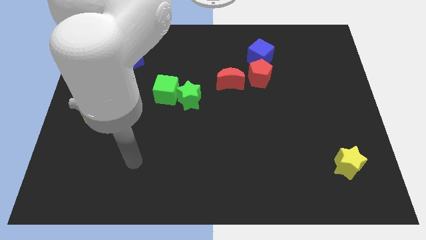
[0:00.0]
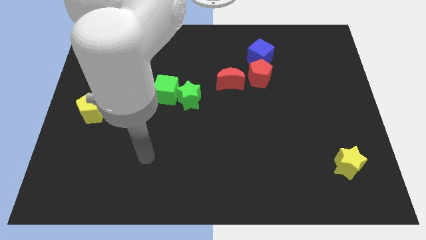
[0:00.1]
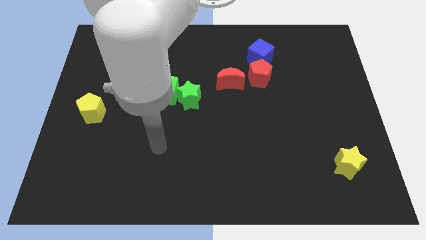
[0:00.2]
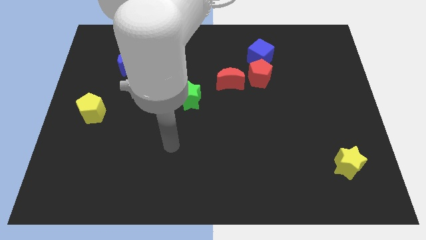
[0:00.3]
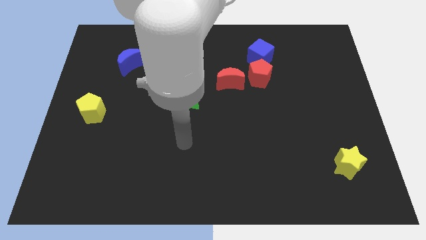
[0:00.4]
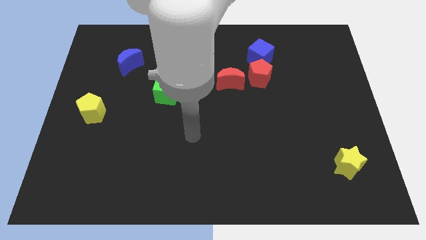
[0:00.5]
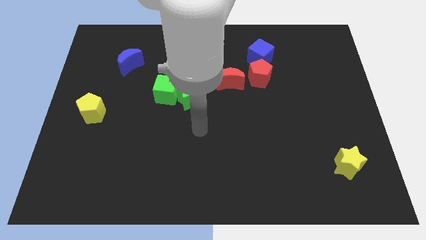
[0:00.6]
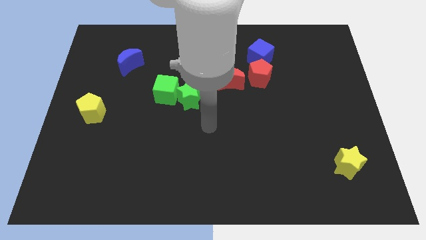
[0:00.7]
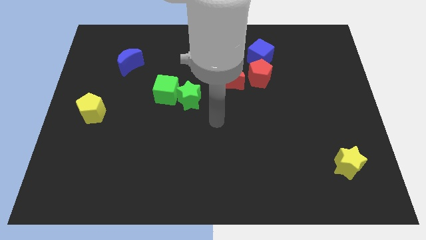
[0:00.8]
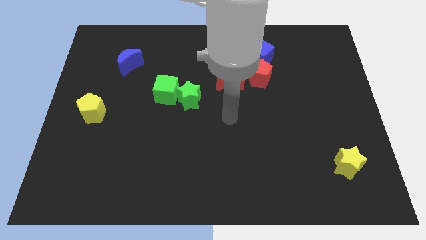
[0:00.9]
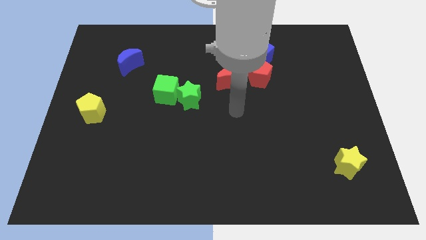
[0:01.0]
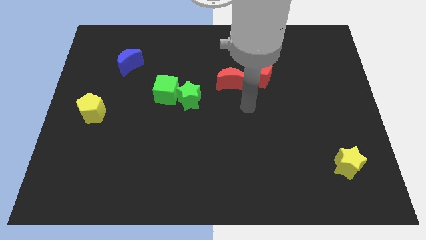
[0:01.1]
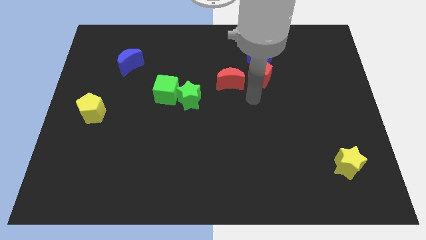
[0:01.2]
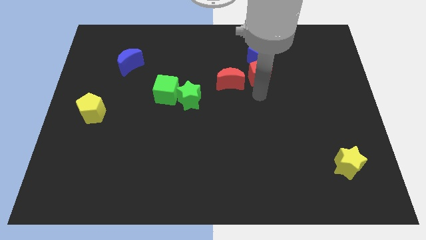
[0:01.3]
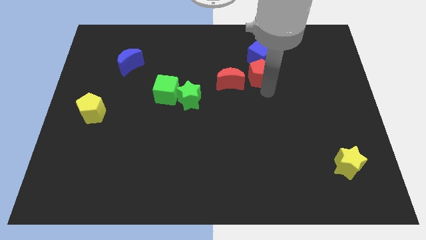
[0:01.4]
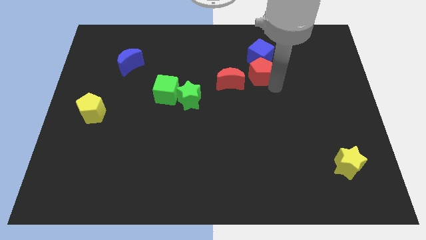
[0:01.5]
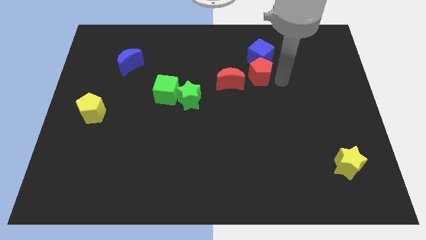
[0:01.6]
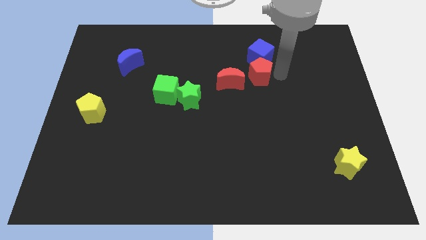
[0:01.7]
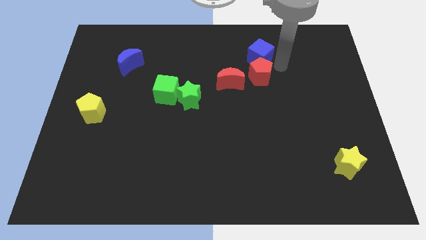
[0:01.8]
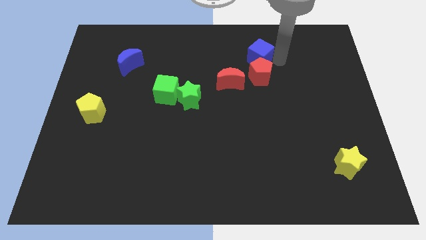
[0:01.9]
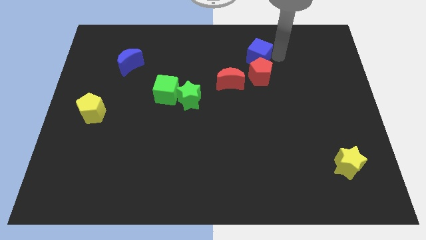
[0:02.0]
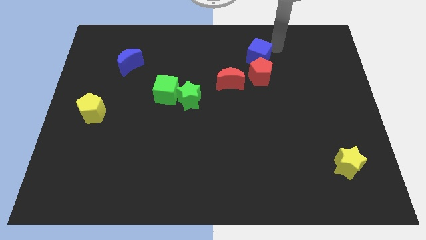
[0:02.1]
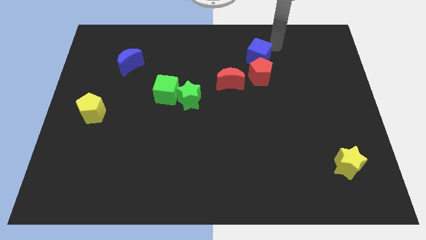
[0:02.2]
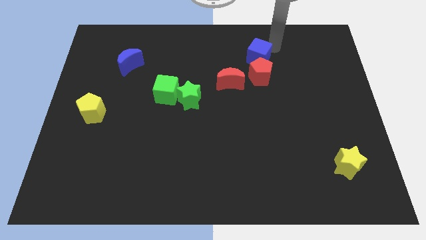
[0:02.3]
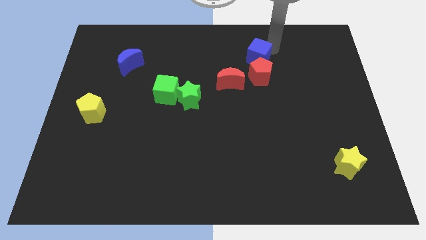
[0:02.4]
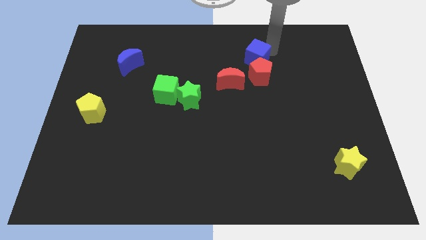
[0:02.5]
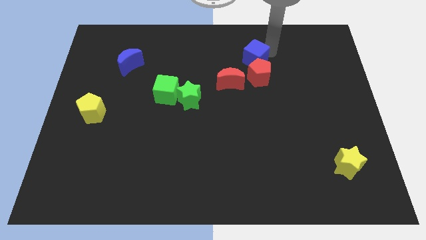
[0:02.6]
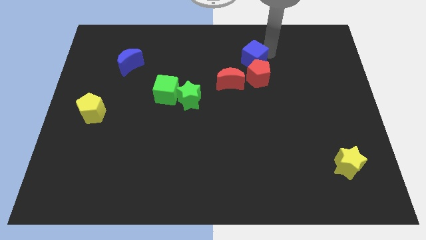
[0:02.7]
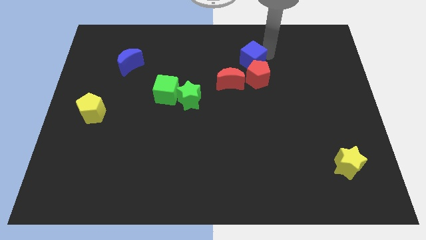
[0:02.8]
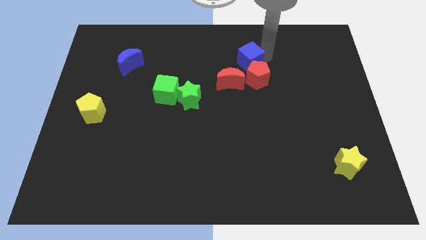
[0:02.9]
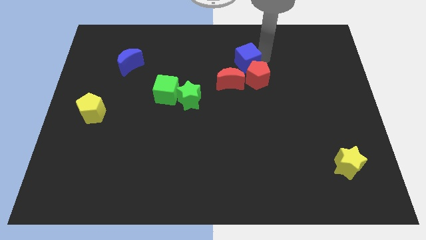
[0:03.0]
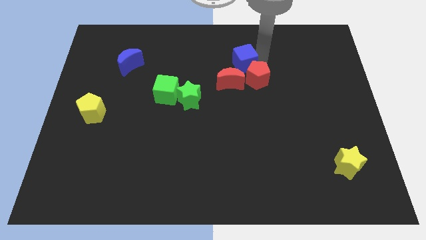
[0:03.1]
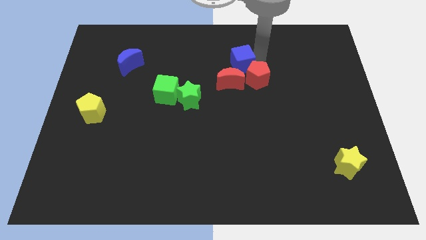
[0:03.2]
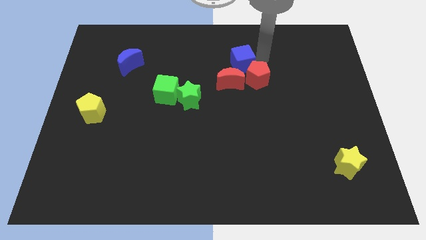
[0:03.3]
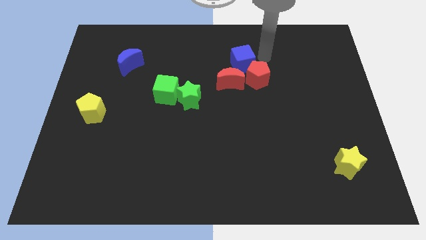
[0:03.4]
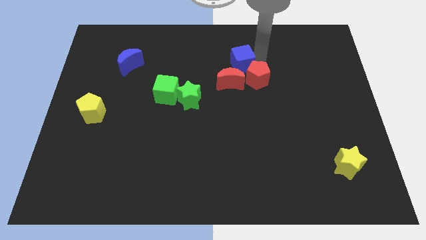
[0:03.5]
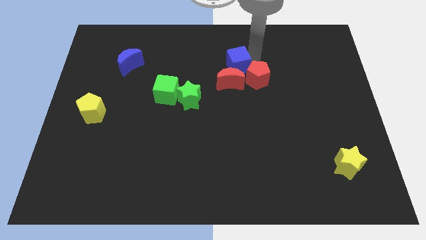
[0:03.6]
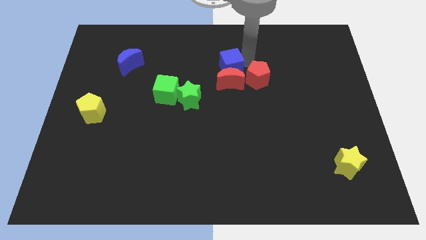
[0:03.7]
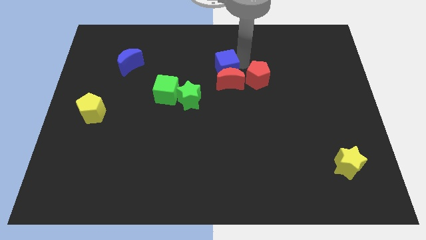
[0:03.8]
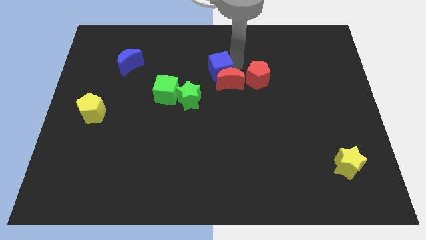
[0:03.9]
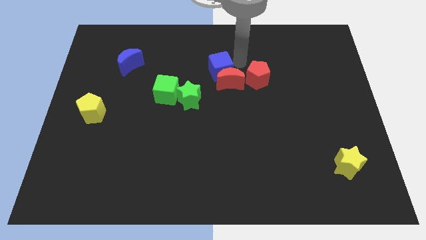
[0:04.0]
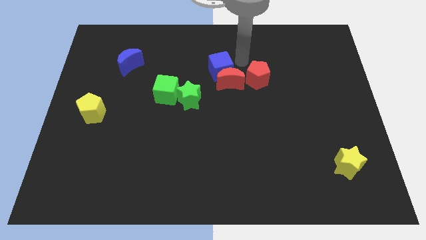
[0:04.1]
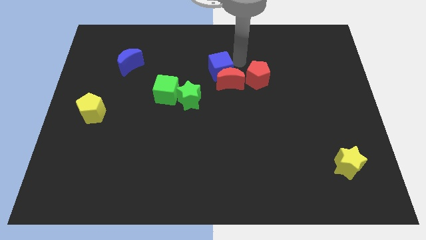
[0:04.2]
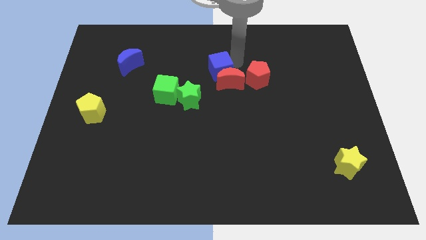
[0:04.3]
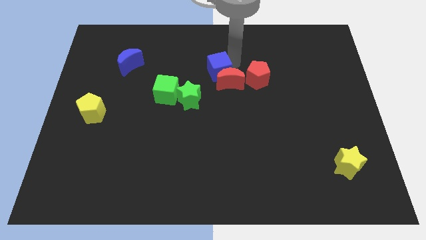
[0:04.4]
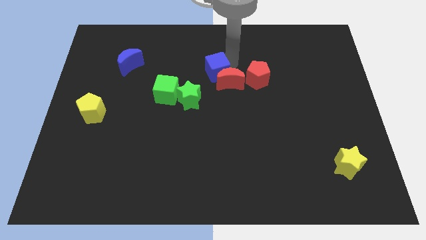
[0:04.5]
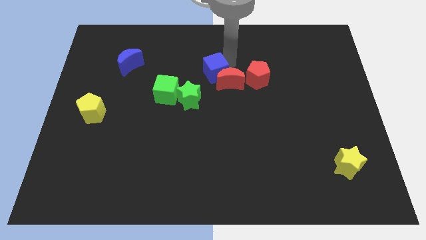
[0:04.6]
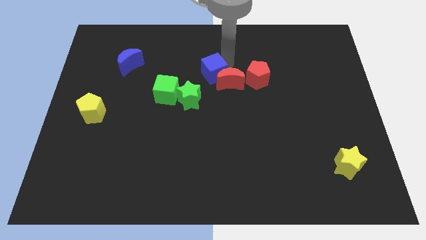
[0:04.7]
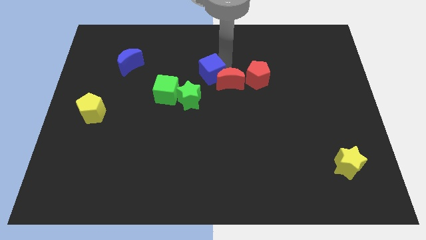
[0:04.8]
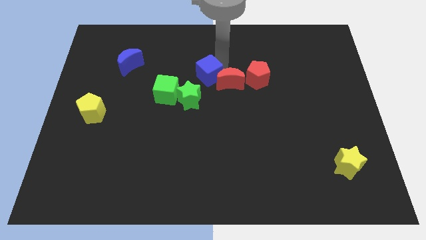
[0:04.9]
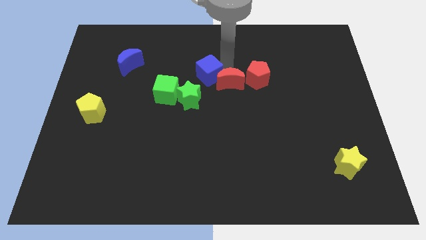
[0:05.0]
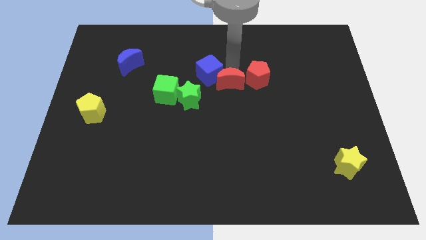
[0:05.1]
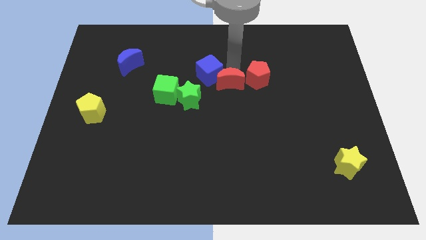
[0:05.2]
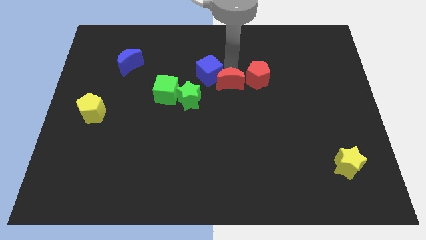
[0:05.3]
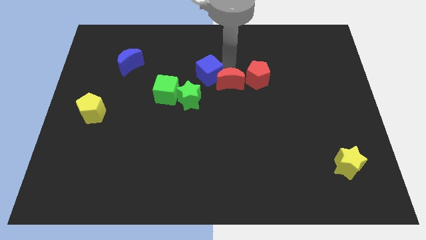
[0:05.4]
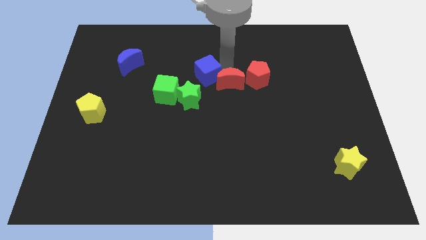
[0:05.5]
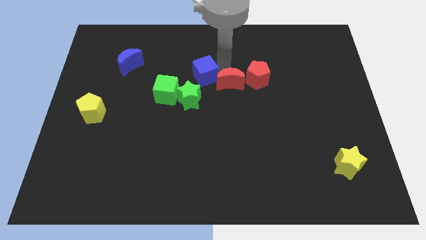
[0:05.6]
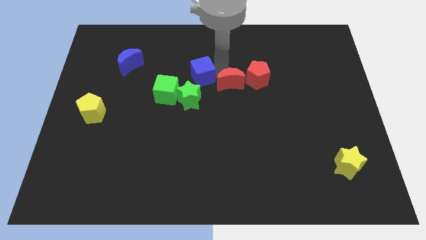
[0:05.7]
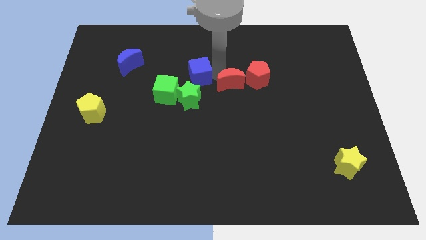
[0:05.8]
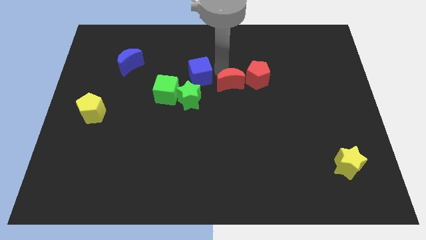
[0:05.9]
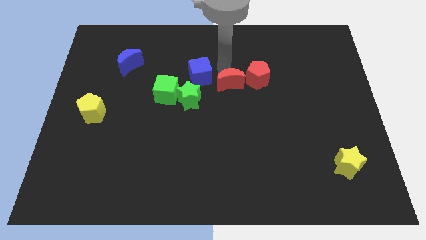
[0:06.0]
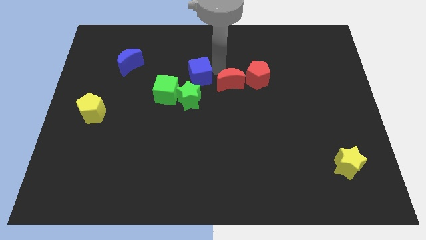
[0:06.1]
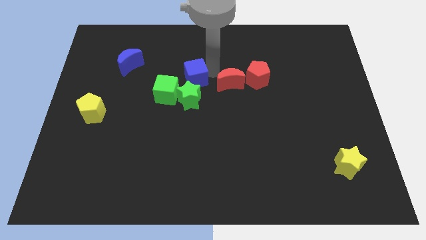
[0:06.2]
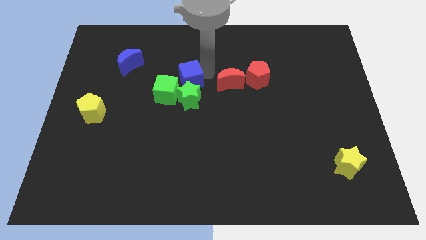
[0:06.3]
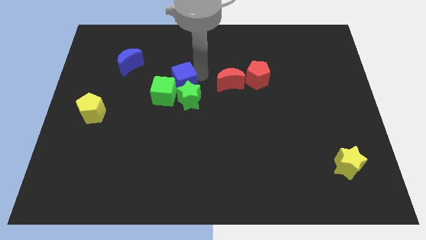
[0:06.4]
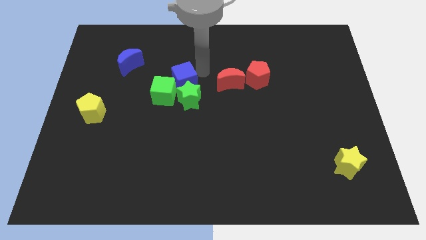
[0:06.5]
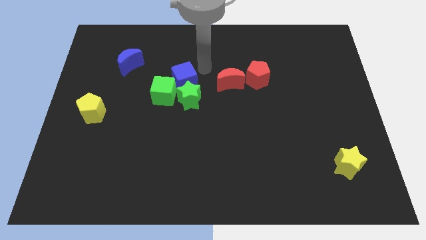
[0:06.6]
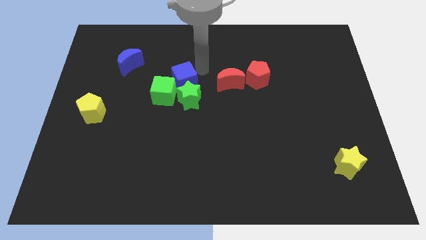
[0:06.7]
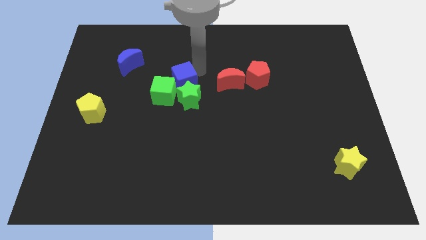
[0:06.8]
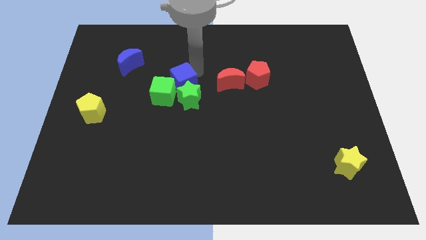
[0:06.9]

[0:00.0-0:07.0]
put the blue cube towards the green cube

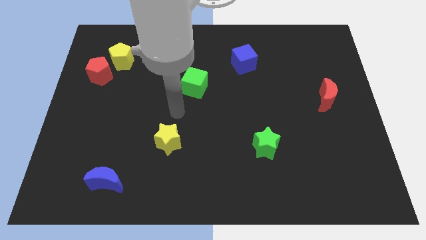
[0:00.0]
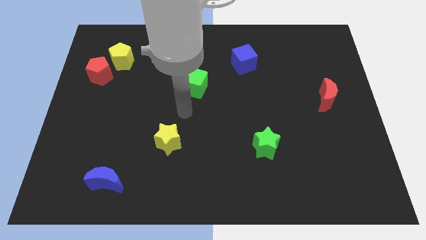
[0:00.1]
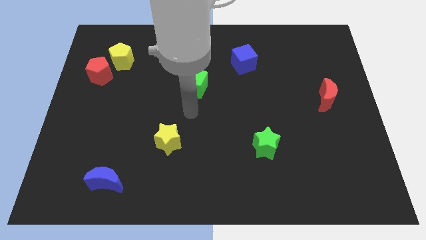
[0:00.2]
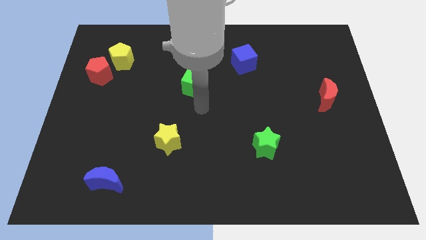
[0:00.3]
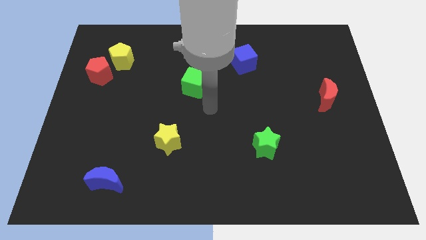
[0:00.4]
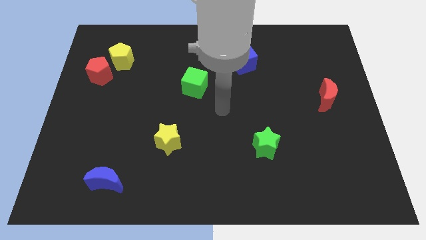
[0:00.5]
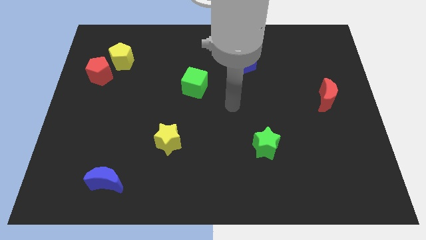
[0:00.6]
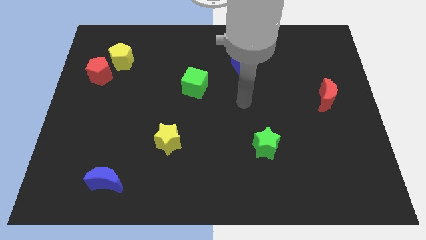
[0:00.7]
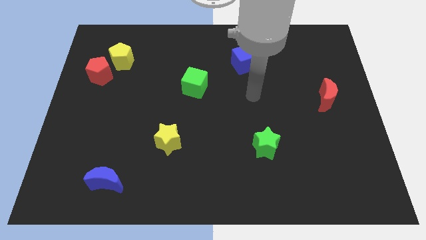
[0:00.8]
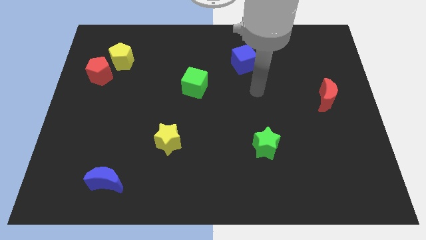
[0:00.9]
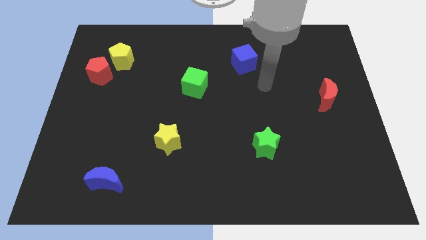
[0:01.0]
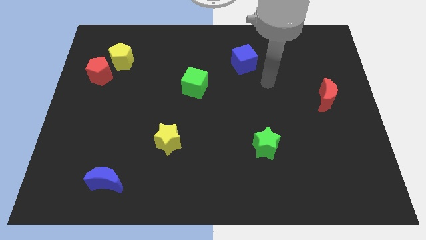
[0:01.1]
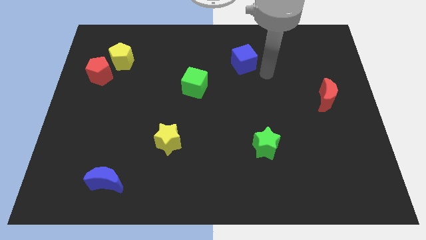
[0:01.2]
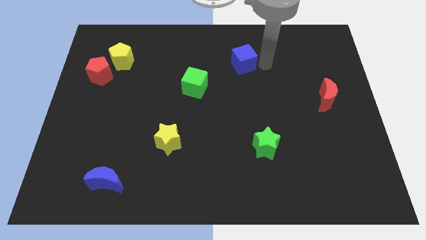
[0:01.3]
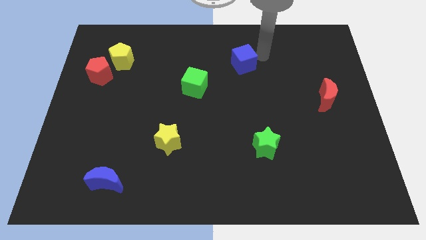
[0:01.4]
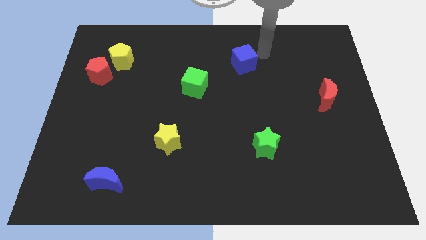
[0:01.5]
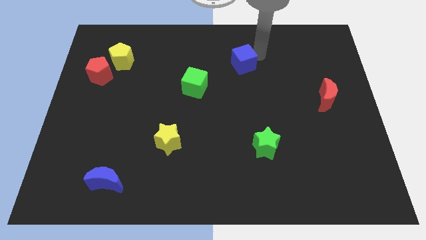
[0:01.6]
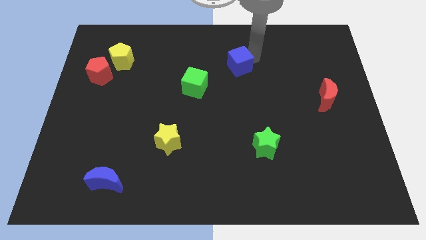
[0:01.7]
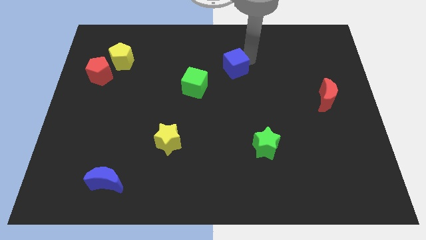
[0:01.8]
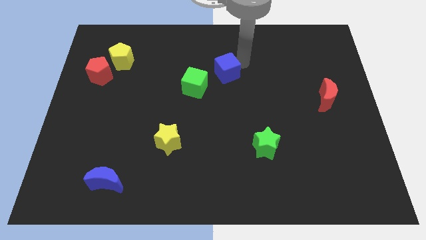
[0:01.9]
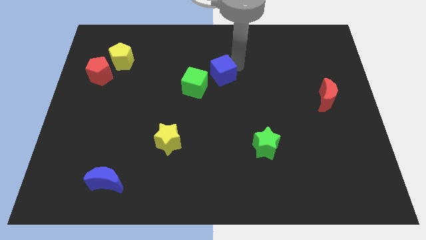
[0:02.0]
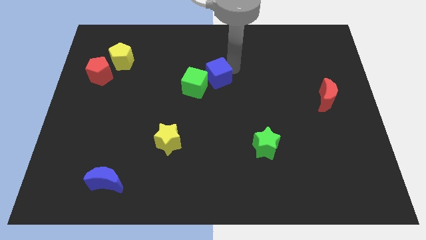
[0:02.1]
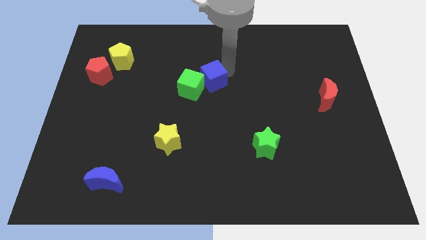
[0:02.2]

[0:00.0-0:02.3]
push the blue cube to the green cube
